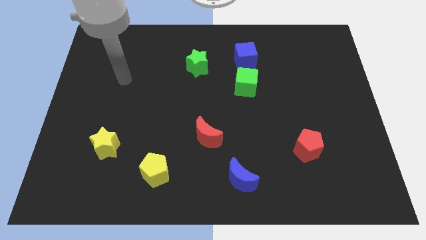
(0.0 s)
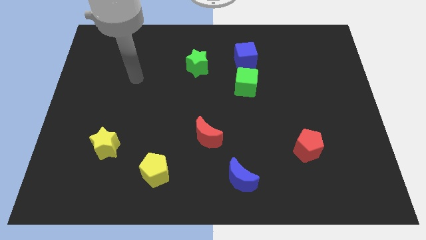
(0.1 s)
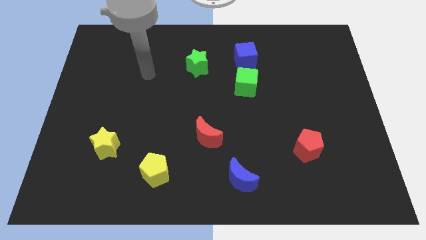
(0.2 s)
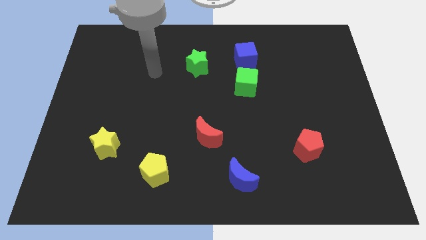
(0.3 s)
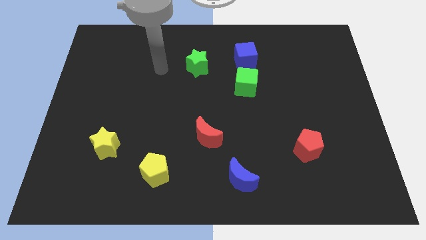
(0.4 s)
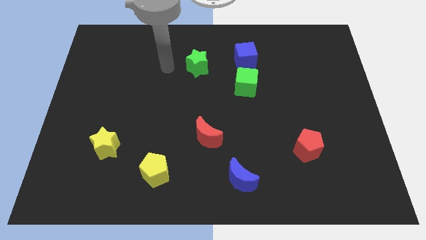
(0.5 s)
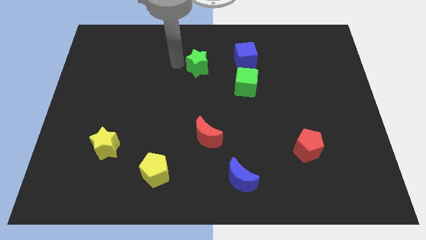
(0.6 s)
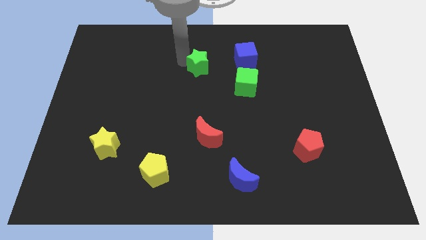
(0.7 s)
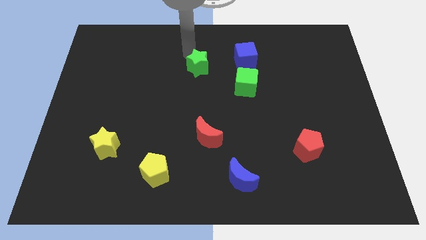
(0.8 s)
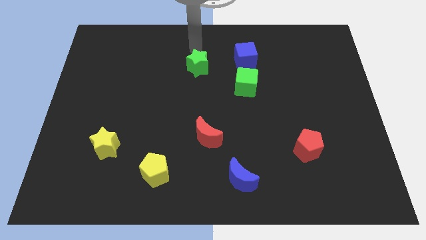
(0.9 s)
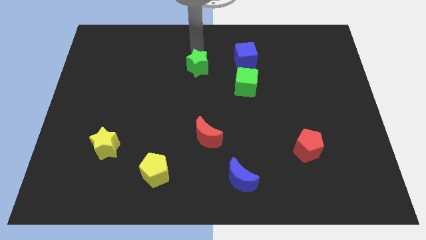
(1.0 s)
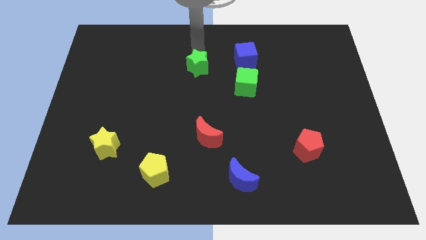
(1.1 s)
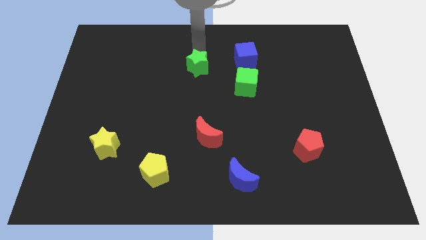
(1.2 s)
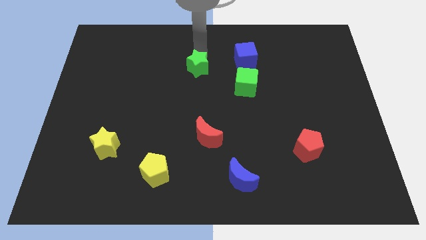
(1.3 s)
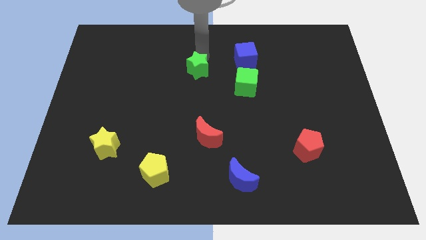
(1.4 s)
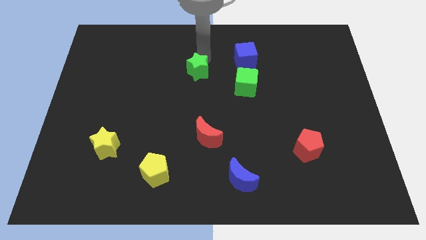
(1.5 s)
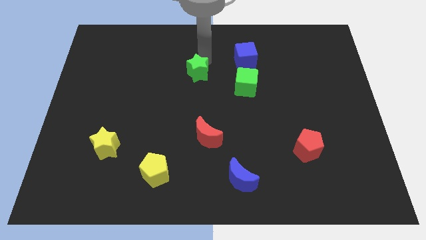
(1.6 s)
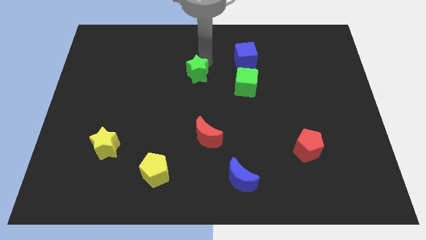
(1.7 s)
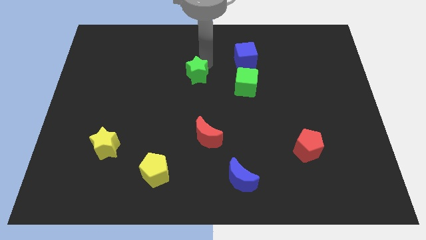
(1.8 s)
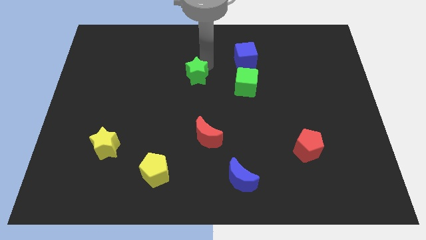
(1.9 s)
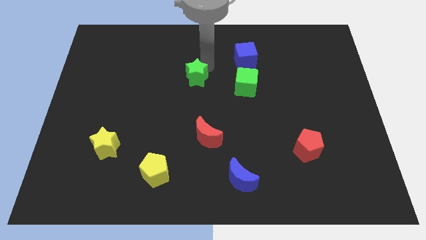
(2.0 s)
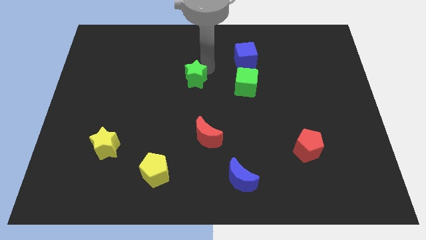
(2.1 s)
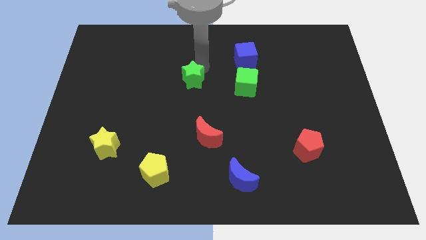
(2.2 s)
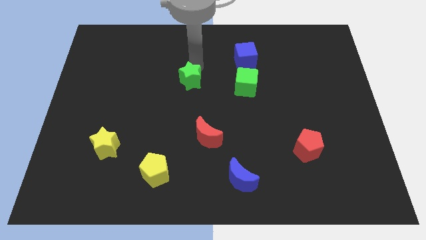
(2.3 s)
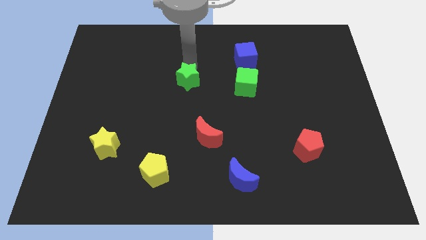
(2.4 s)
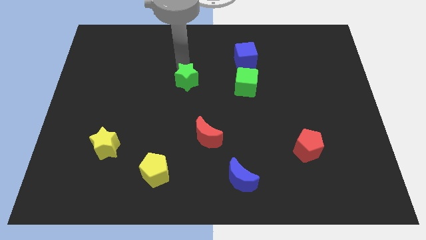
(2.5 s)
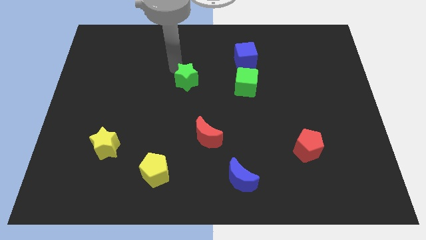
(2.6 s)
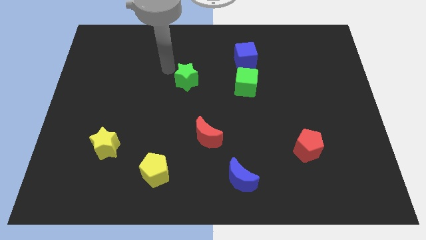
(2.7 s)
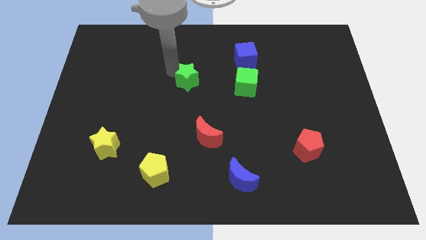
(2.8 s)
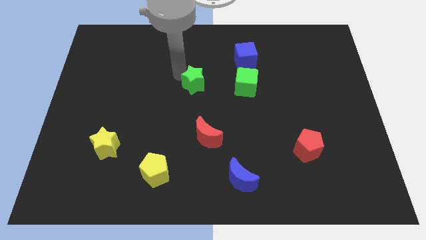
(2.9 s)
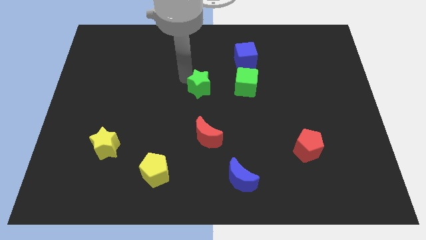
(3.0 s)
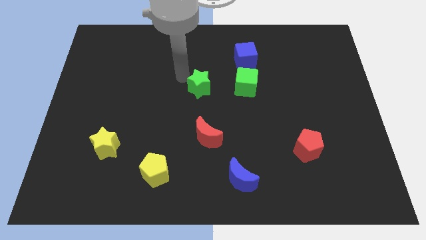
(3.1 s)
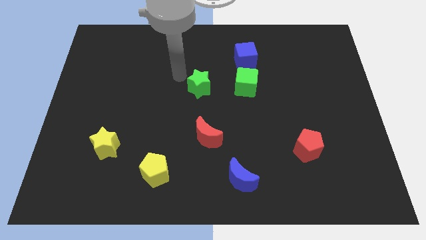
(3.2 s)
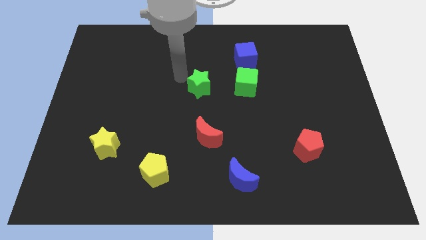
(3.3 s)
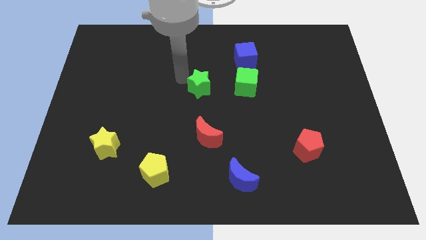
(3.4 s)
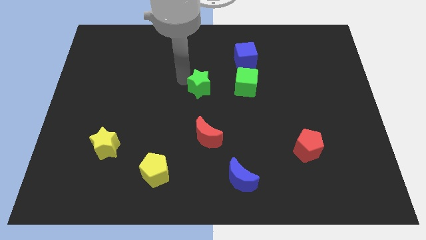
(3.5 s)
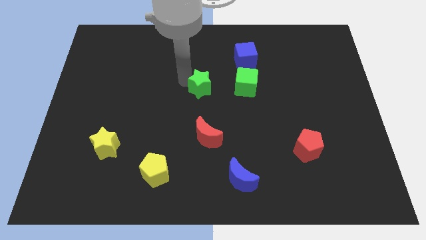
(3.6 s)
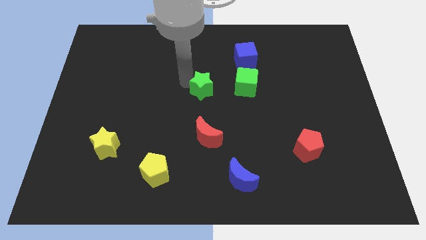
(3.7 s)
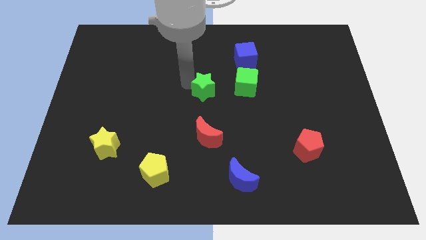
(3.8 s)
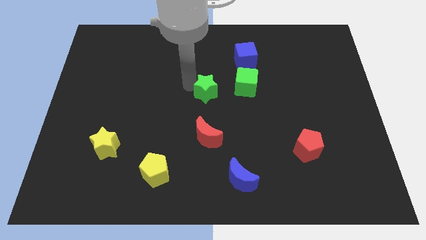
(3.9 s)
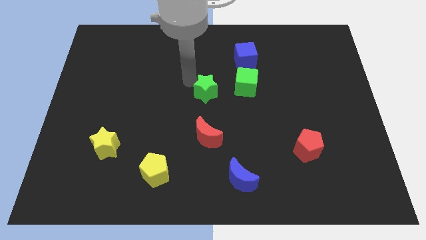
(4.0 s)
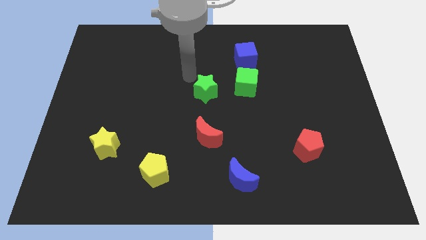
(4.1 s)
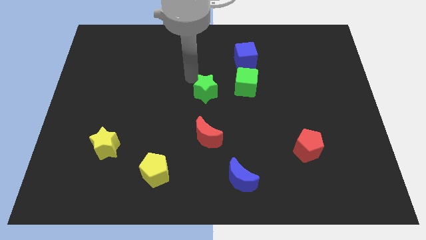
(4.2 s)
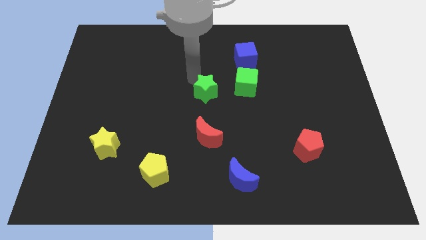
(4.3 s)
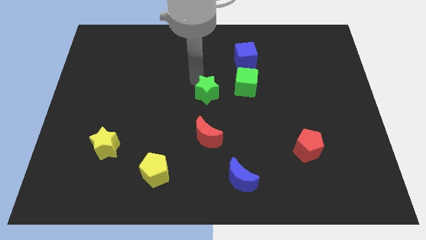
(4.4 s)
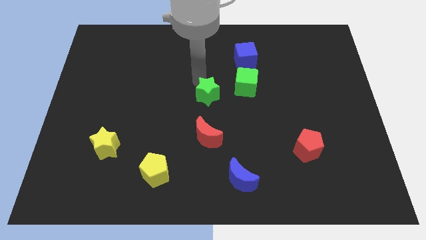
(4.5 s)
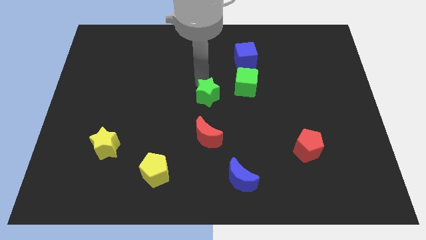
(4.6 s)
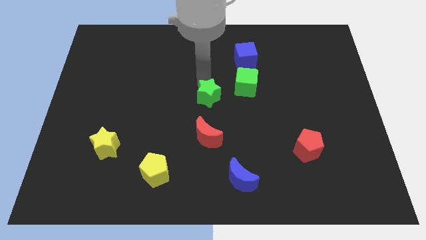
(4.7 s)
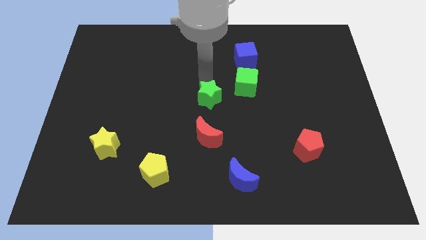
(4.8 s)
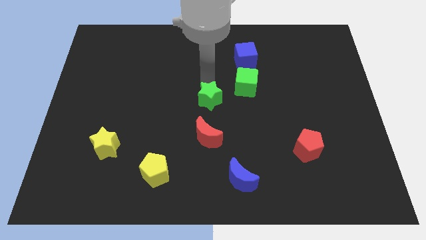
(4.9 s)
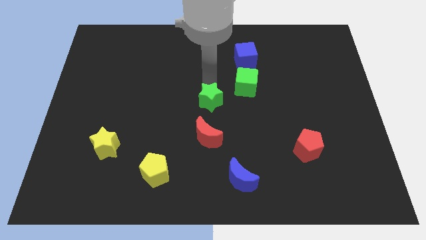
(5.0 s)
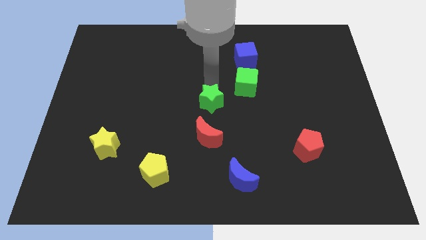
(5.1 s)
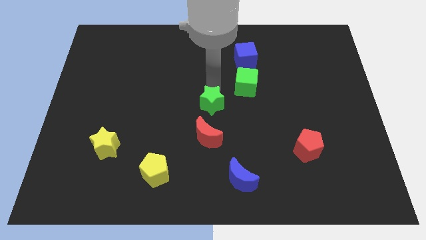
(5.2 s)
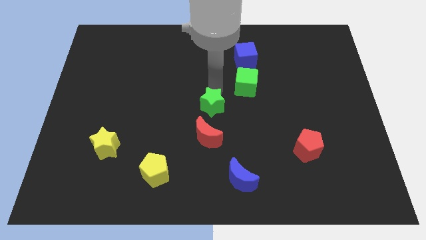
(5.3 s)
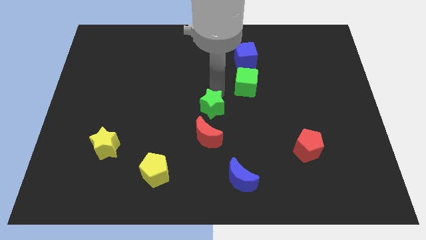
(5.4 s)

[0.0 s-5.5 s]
move the green star to the top right side of the red moon

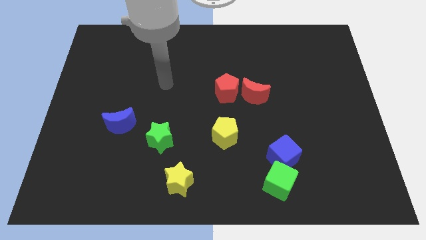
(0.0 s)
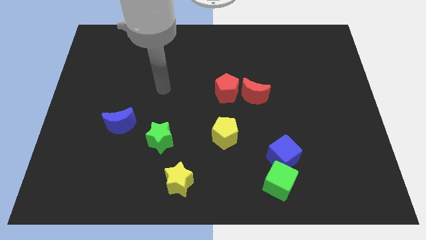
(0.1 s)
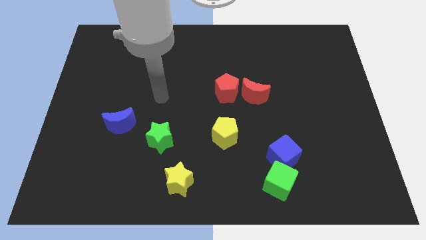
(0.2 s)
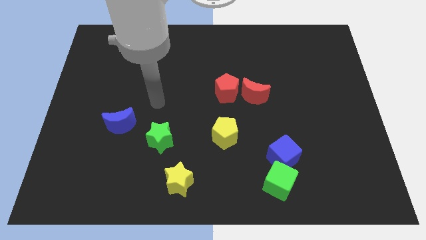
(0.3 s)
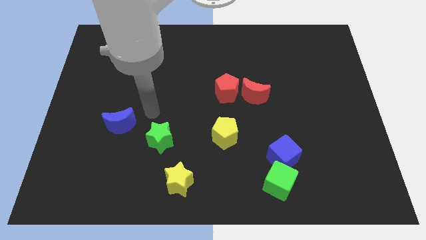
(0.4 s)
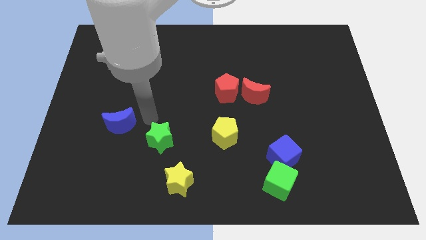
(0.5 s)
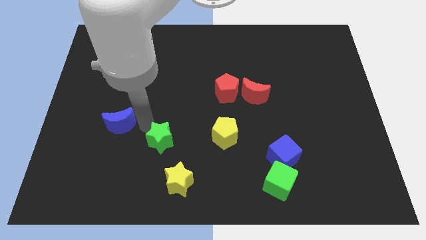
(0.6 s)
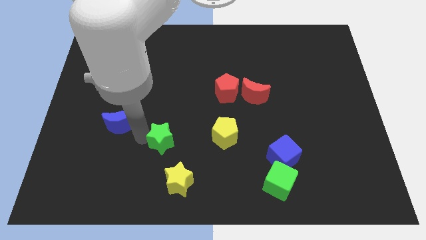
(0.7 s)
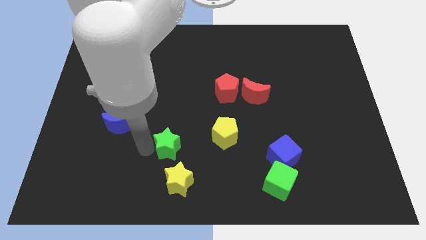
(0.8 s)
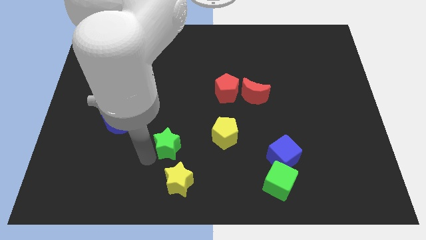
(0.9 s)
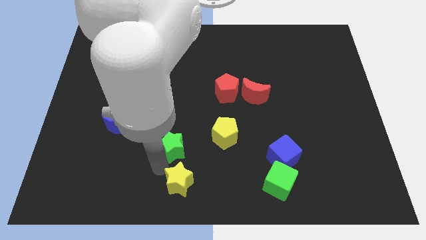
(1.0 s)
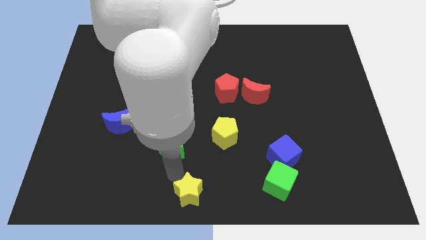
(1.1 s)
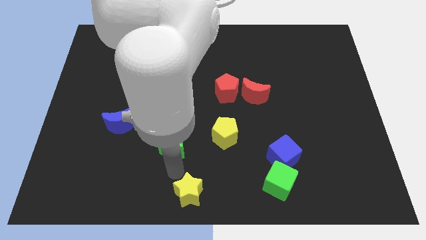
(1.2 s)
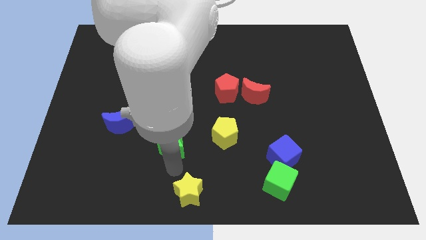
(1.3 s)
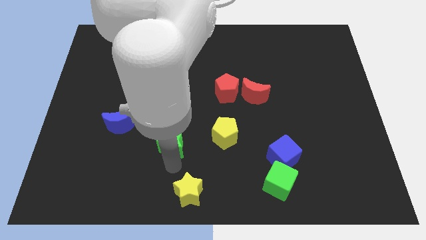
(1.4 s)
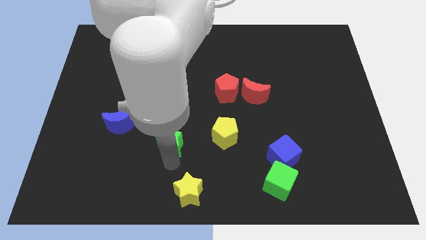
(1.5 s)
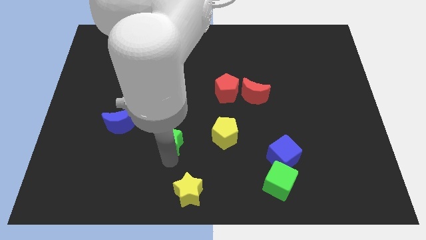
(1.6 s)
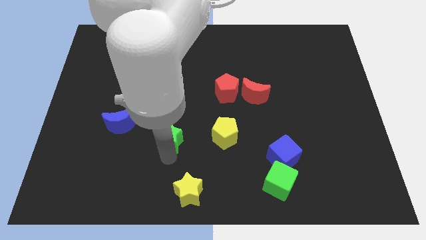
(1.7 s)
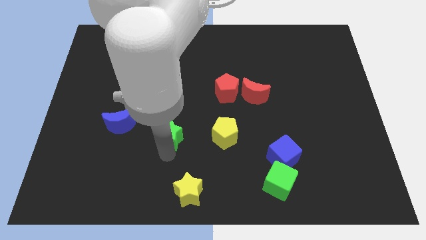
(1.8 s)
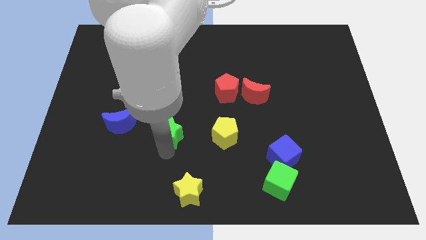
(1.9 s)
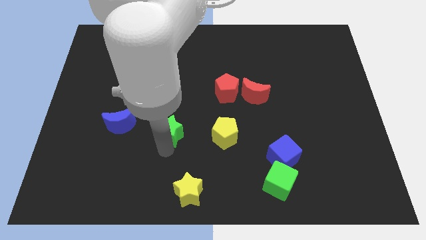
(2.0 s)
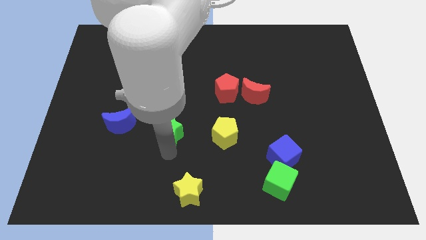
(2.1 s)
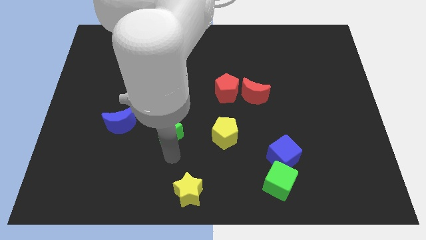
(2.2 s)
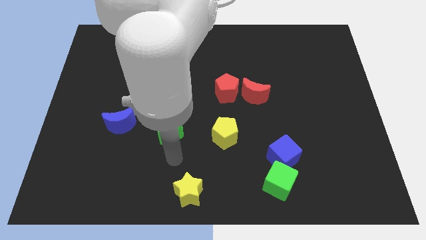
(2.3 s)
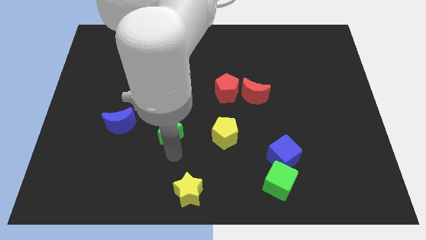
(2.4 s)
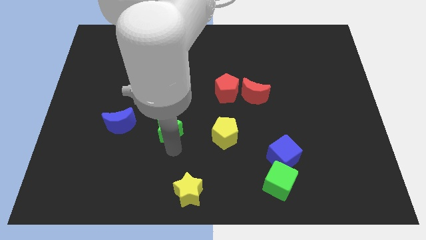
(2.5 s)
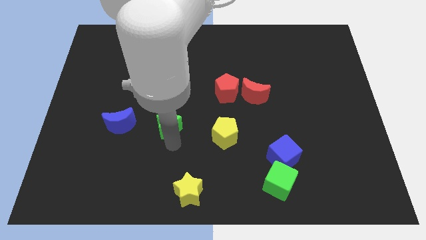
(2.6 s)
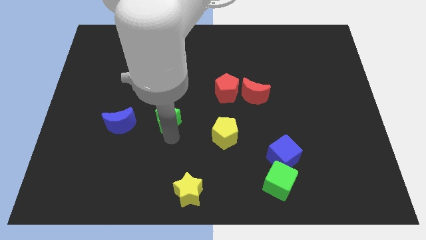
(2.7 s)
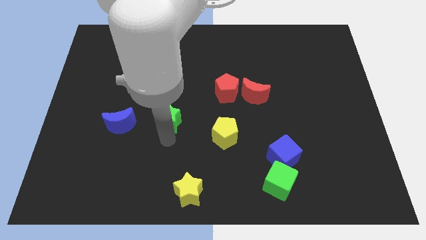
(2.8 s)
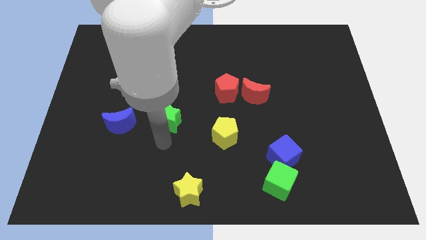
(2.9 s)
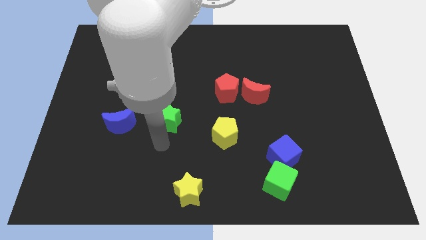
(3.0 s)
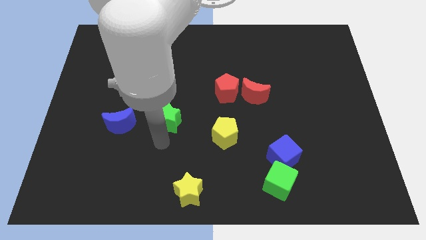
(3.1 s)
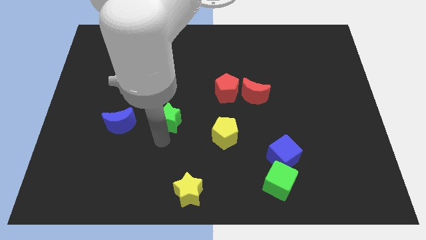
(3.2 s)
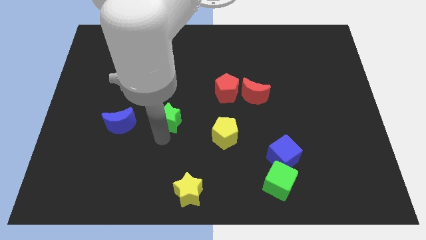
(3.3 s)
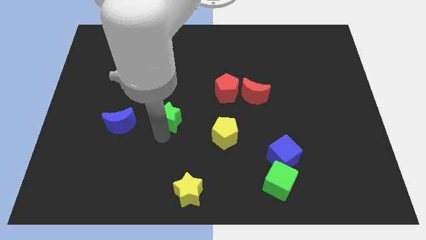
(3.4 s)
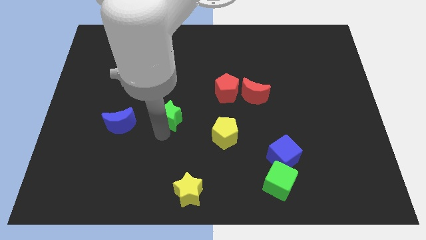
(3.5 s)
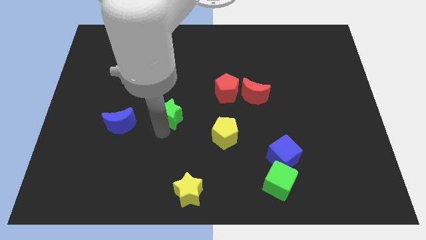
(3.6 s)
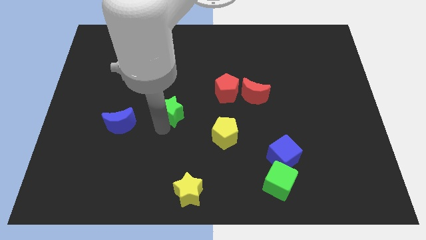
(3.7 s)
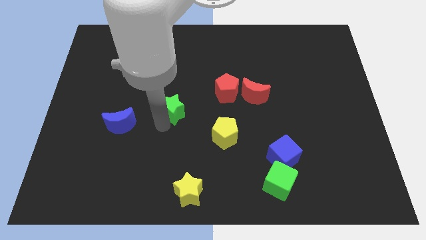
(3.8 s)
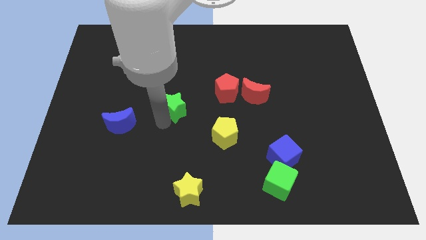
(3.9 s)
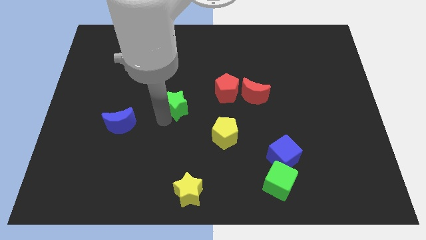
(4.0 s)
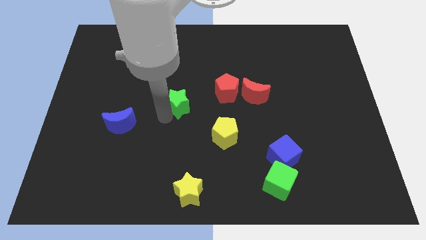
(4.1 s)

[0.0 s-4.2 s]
move the green star just left of the red pentagon
